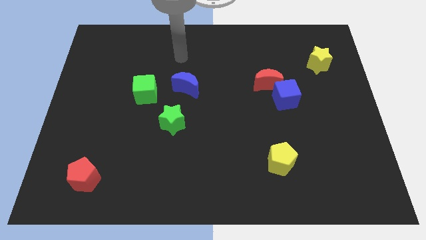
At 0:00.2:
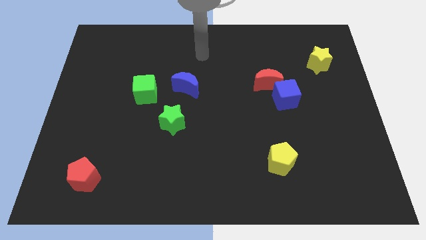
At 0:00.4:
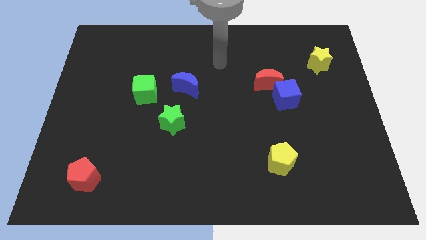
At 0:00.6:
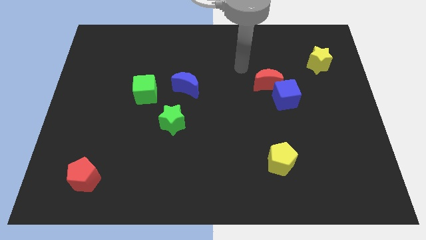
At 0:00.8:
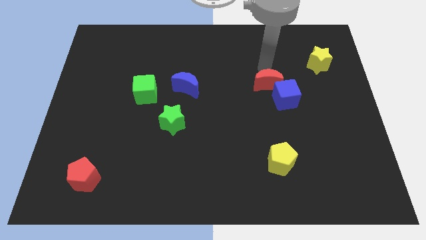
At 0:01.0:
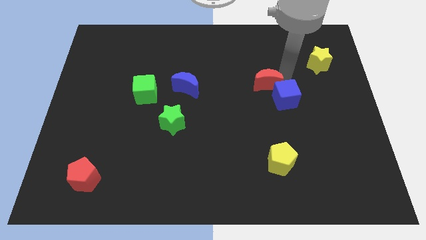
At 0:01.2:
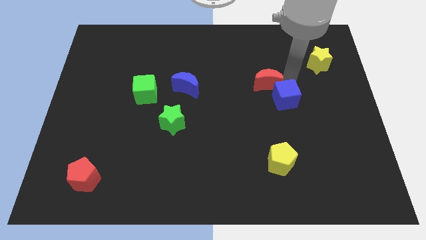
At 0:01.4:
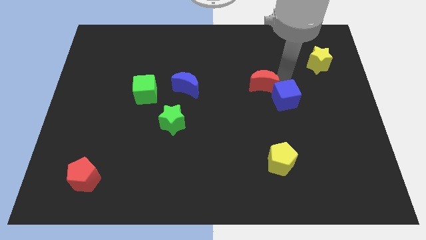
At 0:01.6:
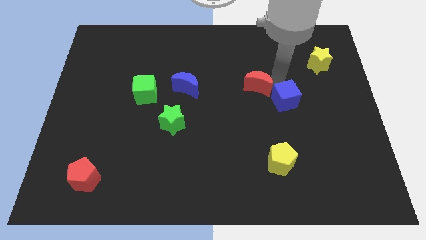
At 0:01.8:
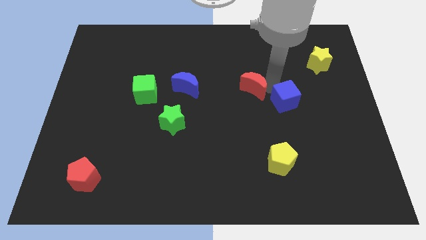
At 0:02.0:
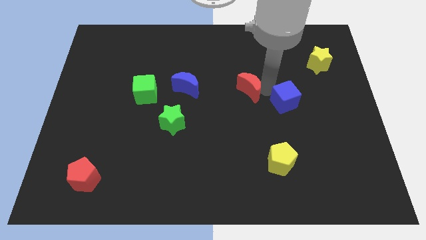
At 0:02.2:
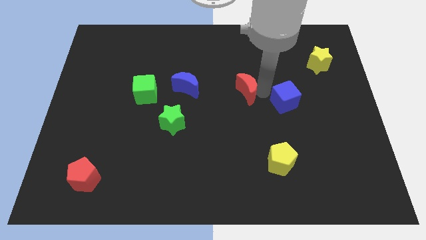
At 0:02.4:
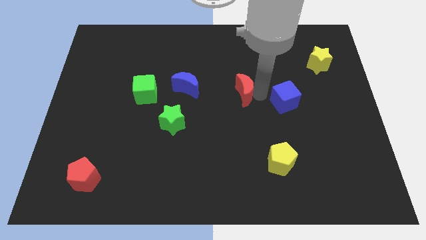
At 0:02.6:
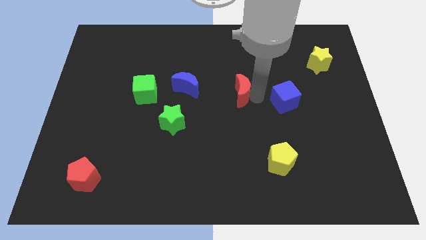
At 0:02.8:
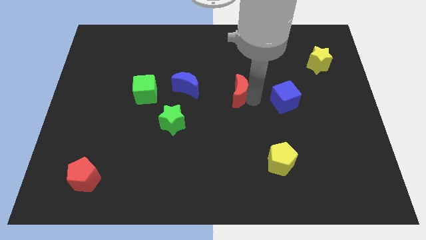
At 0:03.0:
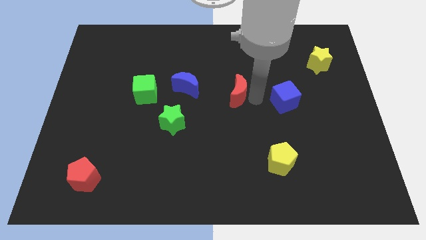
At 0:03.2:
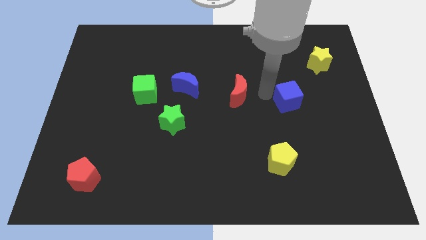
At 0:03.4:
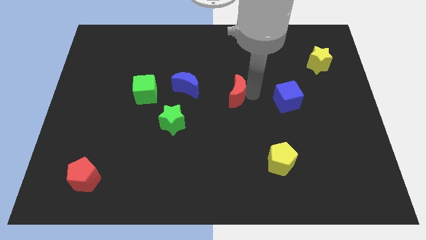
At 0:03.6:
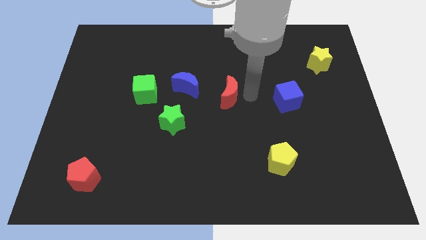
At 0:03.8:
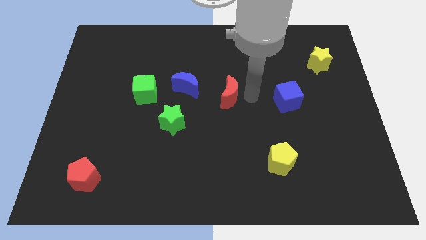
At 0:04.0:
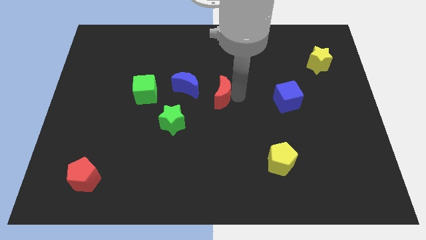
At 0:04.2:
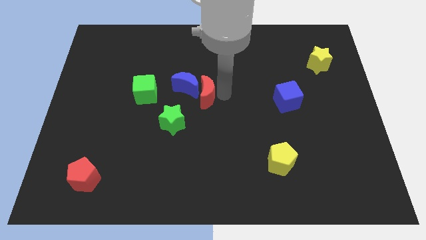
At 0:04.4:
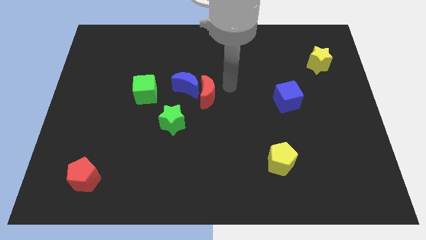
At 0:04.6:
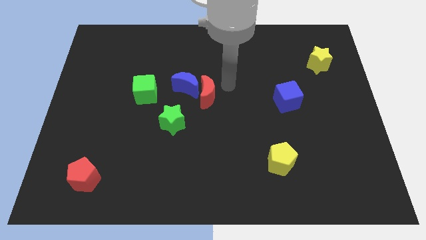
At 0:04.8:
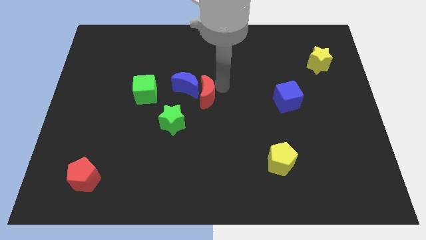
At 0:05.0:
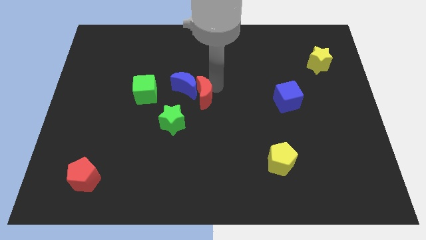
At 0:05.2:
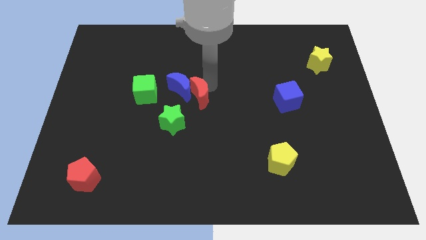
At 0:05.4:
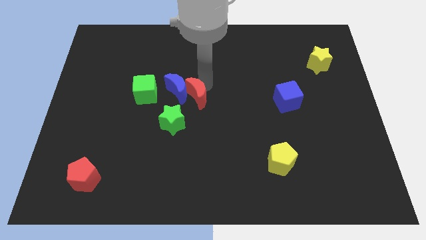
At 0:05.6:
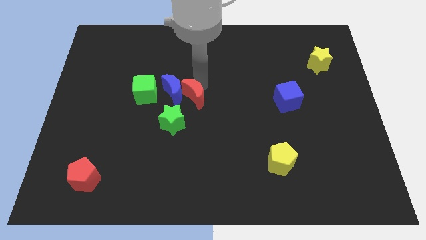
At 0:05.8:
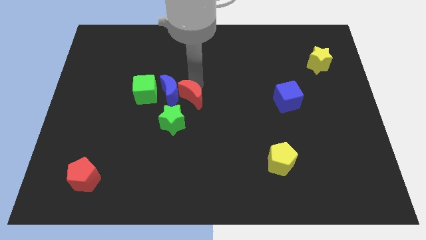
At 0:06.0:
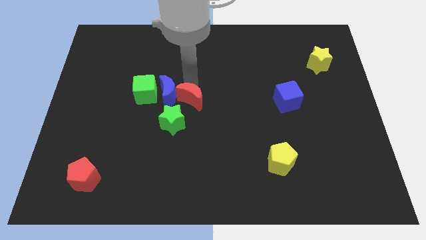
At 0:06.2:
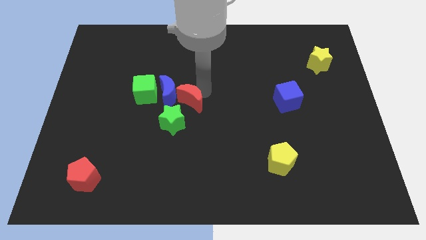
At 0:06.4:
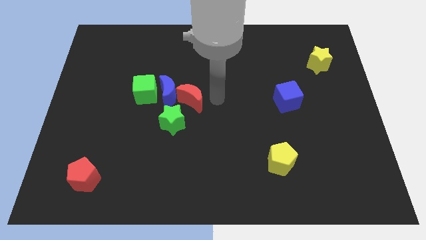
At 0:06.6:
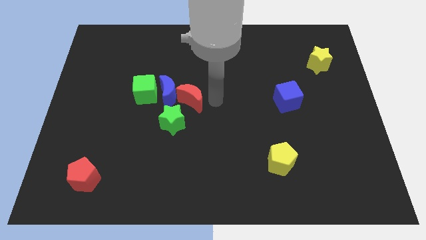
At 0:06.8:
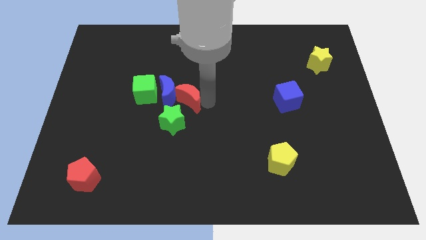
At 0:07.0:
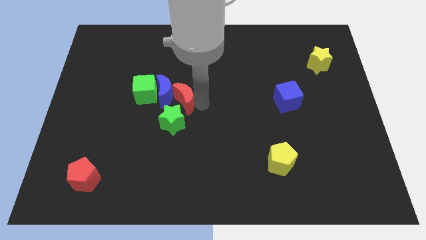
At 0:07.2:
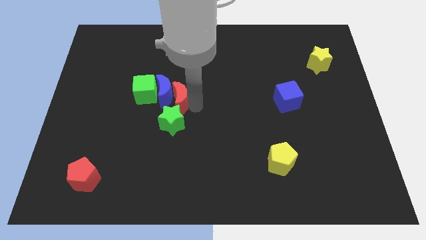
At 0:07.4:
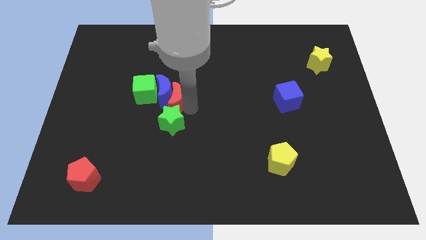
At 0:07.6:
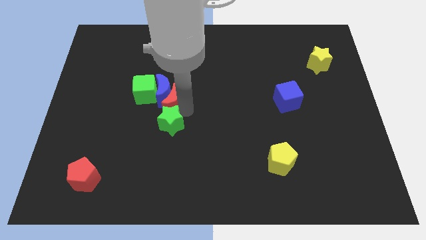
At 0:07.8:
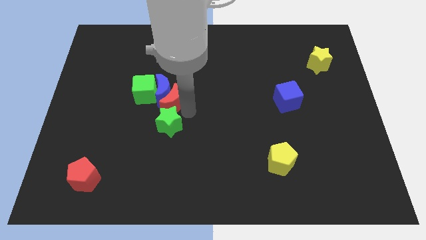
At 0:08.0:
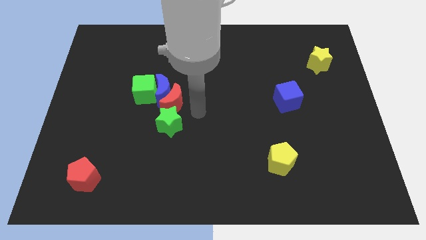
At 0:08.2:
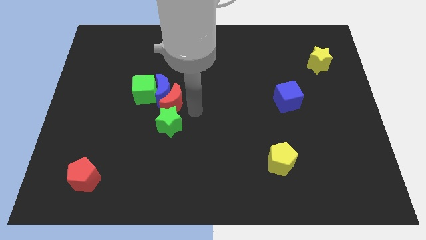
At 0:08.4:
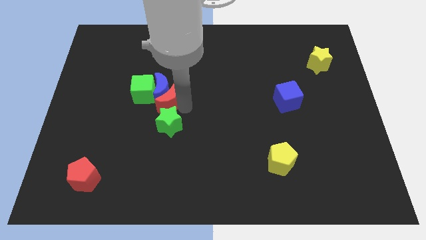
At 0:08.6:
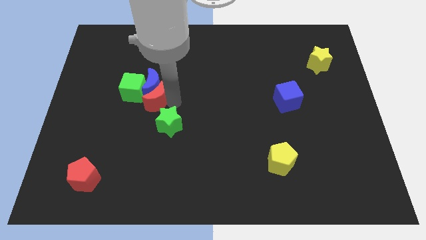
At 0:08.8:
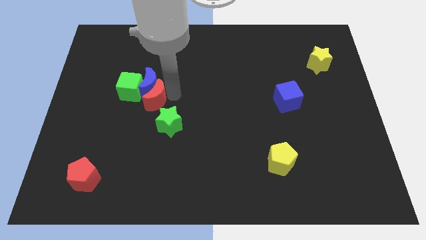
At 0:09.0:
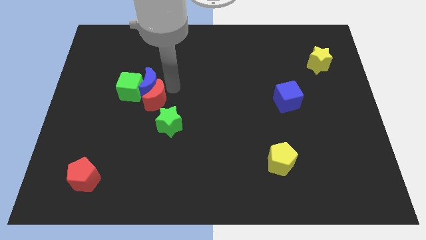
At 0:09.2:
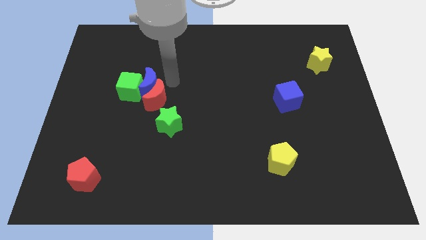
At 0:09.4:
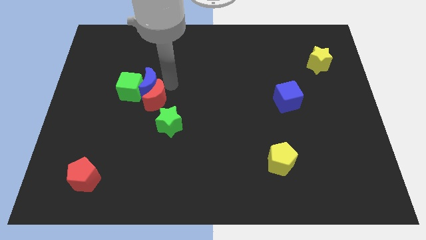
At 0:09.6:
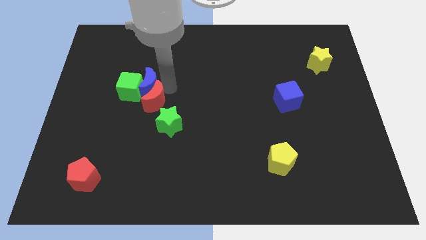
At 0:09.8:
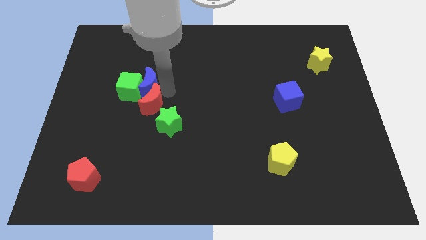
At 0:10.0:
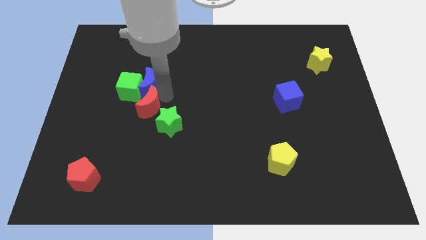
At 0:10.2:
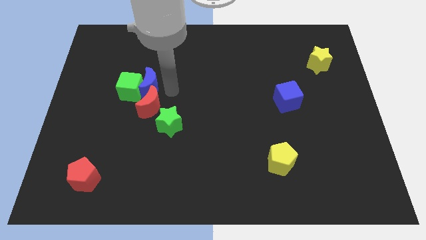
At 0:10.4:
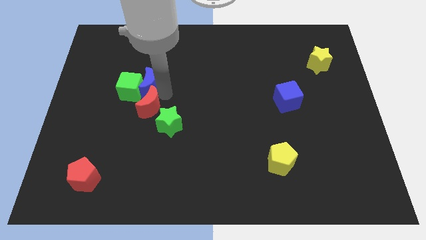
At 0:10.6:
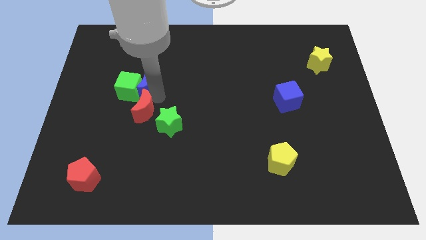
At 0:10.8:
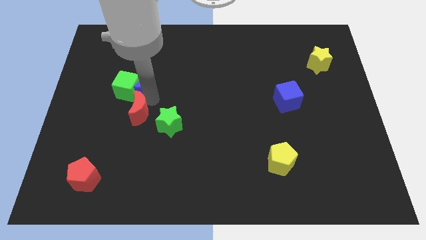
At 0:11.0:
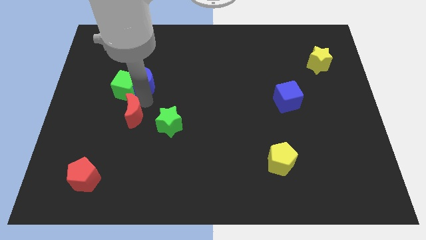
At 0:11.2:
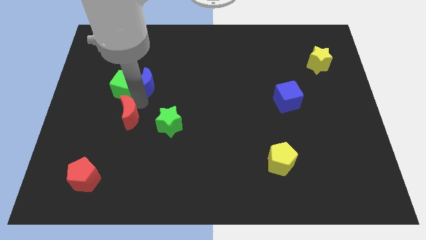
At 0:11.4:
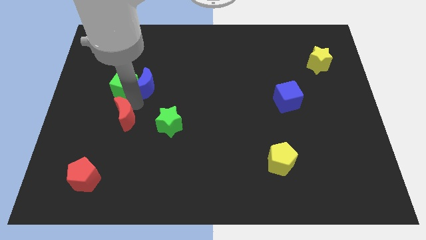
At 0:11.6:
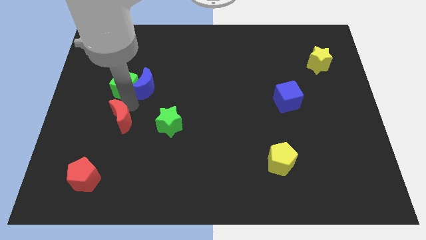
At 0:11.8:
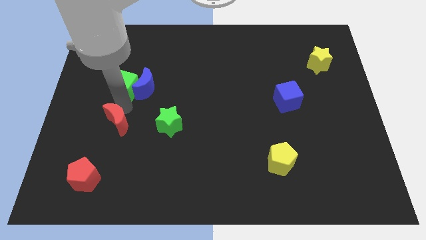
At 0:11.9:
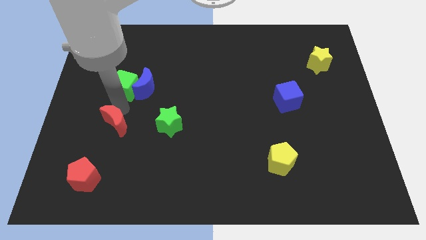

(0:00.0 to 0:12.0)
move the red moon to the top of the red pentagon

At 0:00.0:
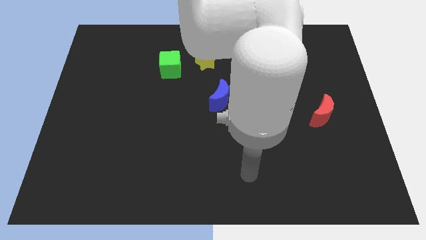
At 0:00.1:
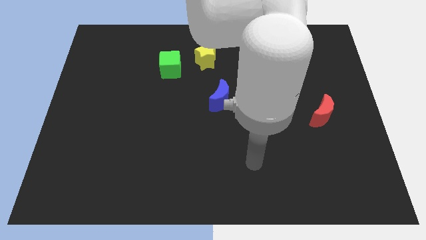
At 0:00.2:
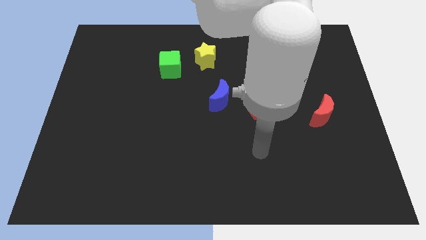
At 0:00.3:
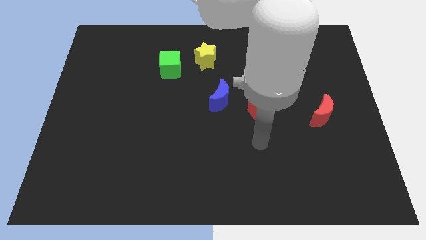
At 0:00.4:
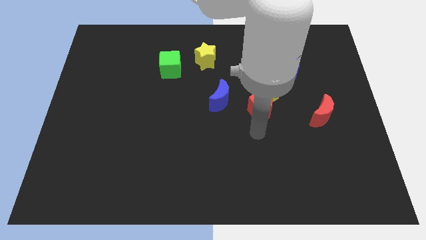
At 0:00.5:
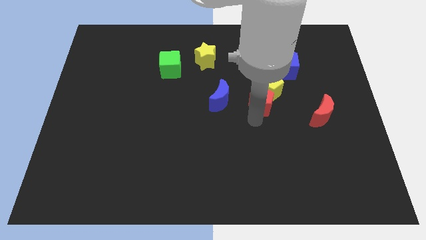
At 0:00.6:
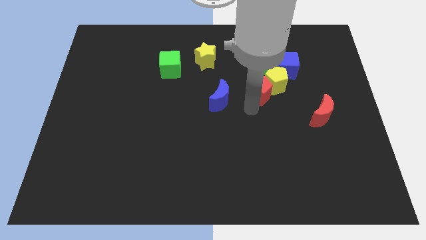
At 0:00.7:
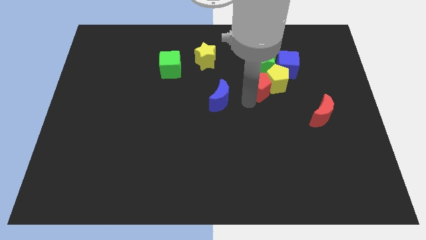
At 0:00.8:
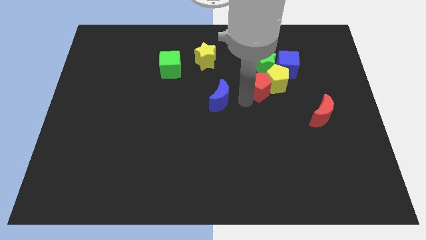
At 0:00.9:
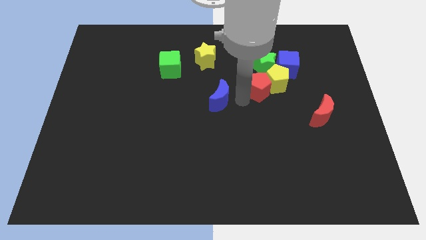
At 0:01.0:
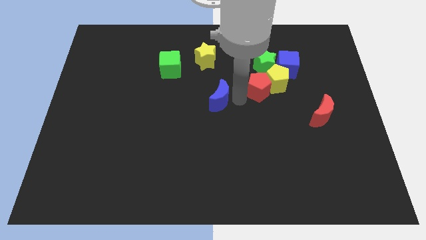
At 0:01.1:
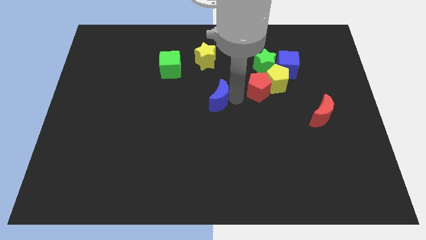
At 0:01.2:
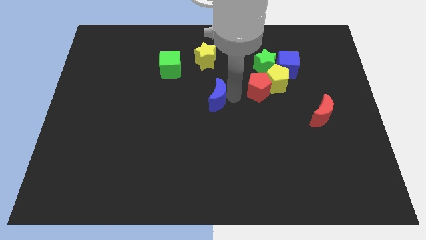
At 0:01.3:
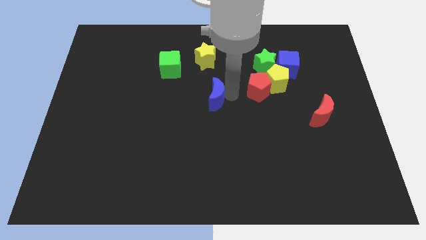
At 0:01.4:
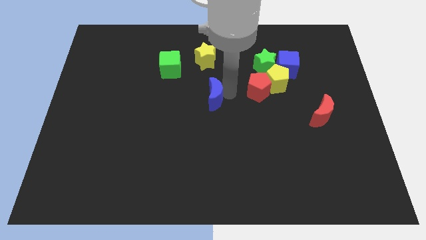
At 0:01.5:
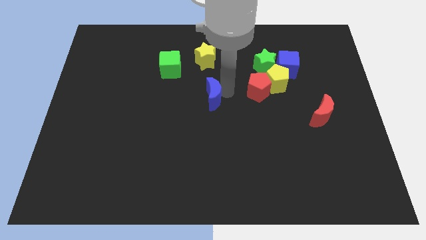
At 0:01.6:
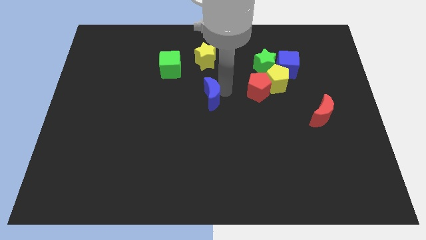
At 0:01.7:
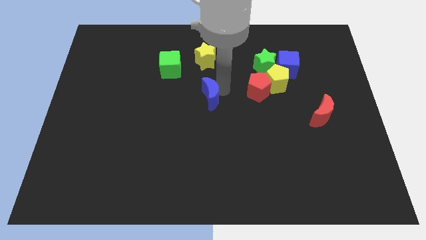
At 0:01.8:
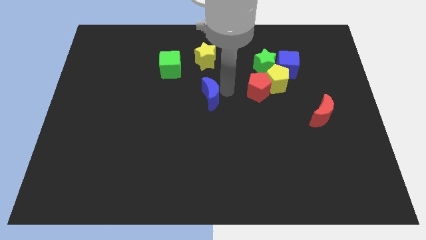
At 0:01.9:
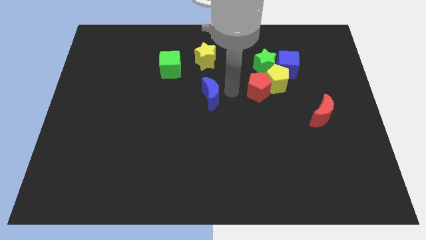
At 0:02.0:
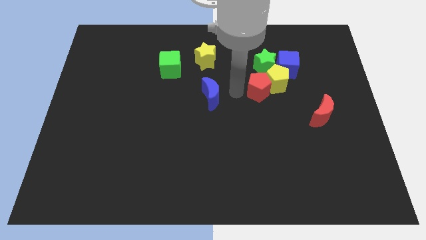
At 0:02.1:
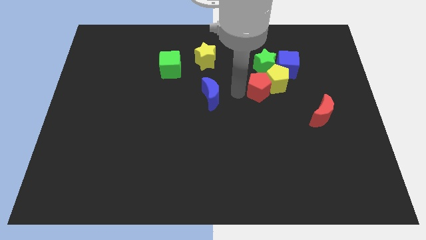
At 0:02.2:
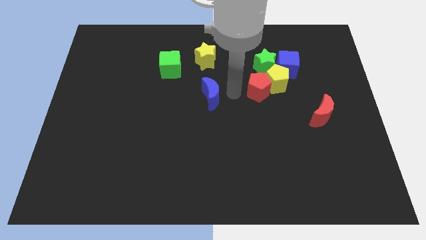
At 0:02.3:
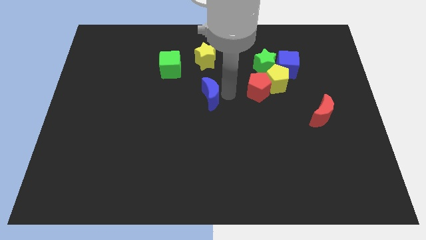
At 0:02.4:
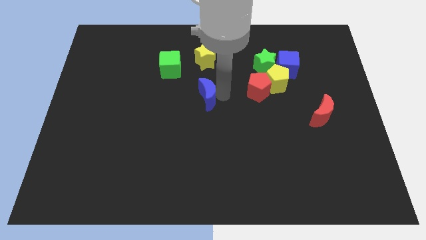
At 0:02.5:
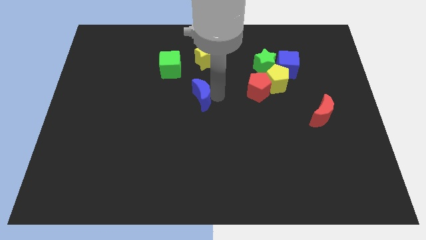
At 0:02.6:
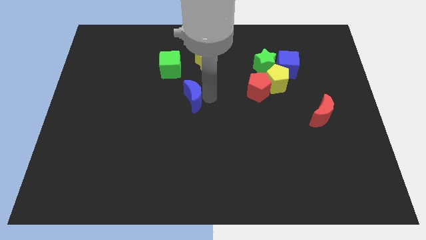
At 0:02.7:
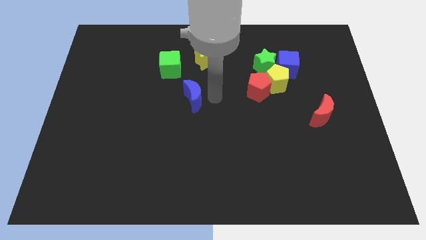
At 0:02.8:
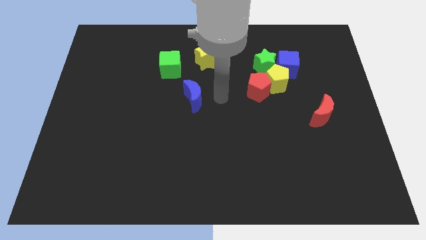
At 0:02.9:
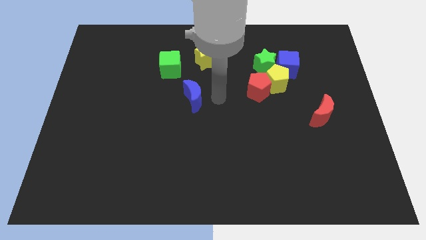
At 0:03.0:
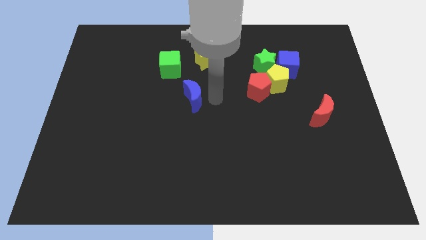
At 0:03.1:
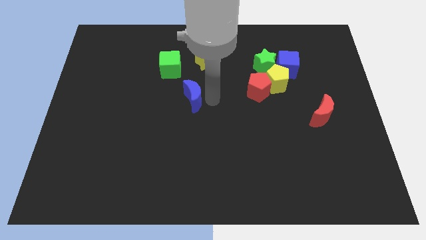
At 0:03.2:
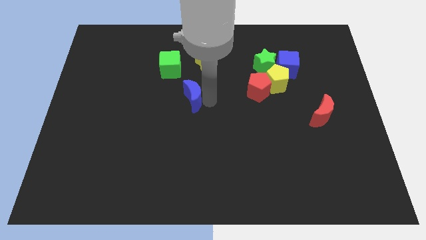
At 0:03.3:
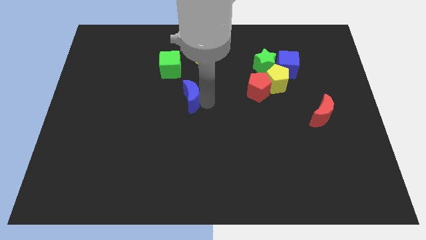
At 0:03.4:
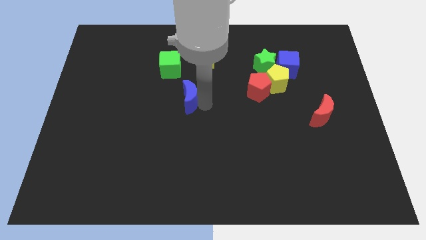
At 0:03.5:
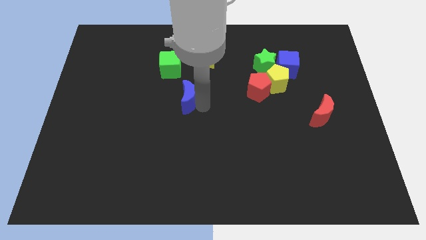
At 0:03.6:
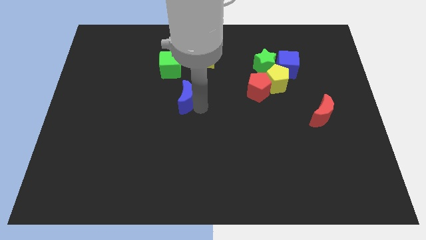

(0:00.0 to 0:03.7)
put the blue moon to the bottom of the green cube
